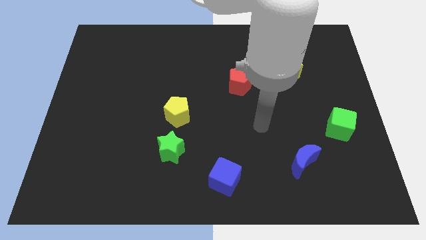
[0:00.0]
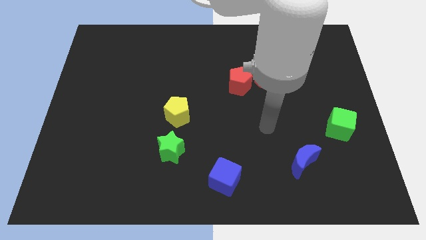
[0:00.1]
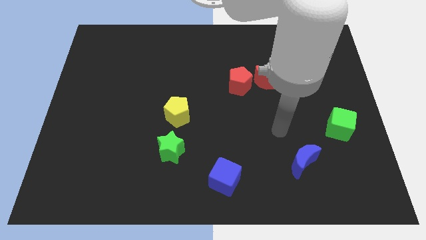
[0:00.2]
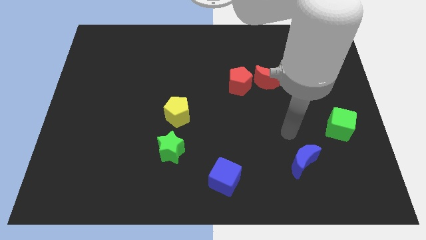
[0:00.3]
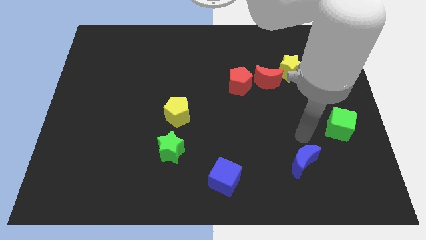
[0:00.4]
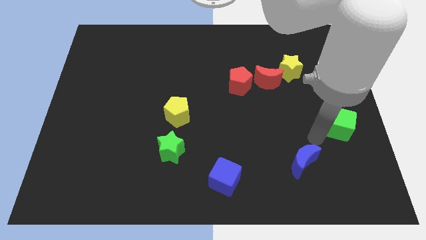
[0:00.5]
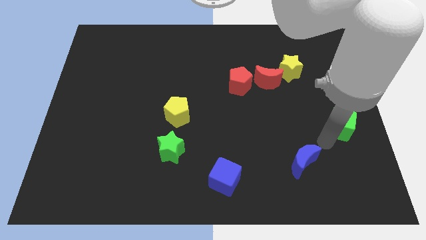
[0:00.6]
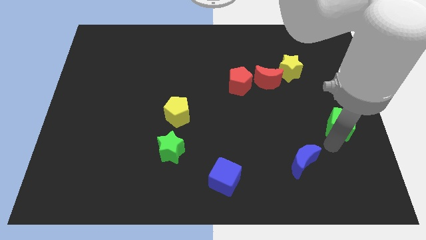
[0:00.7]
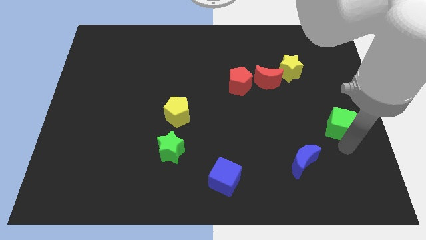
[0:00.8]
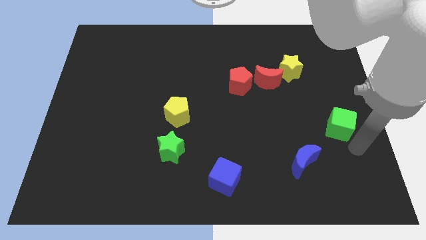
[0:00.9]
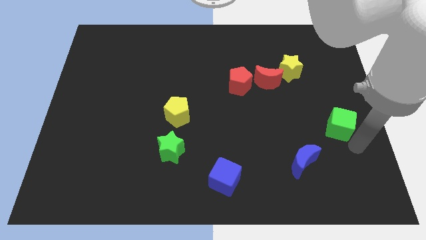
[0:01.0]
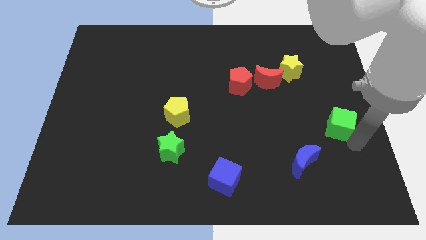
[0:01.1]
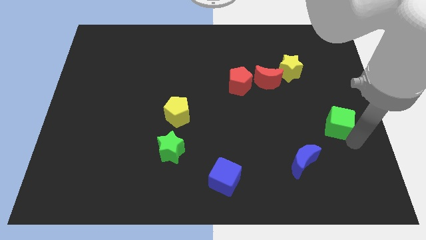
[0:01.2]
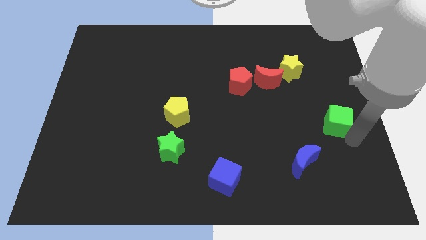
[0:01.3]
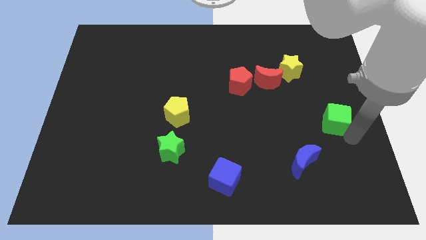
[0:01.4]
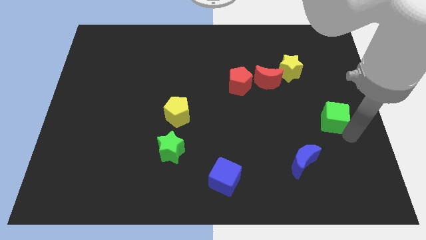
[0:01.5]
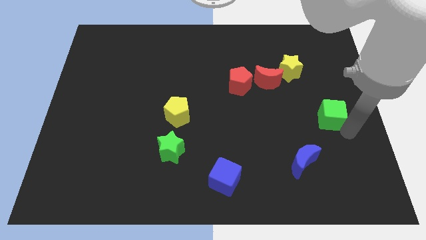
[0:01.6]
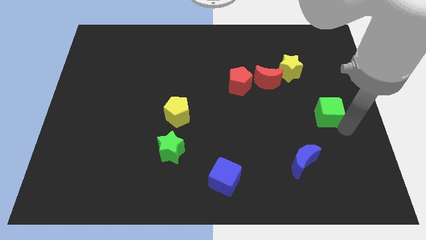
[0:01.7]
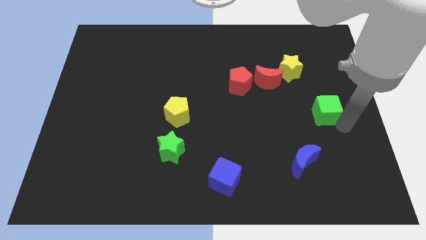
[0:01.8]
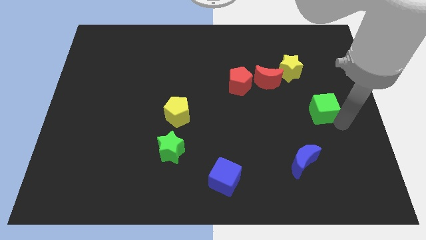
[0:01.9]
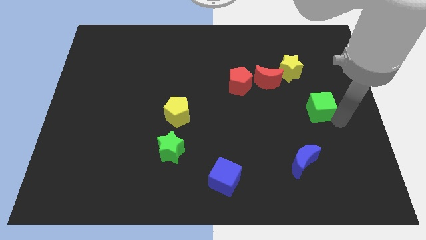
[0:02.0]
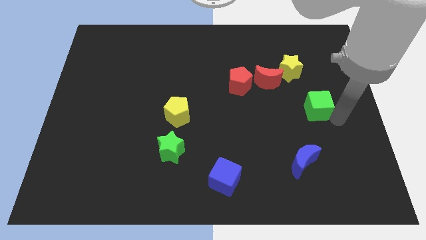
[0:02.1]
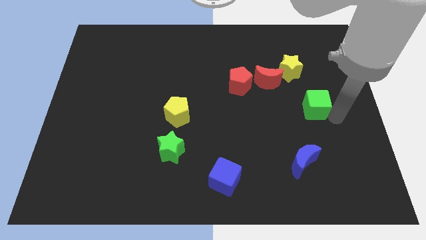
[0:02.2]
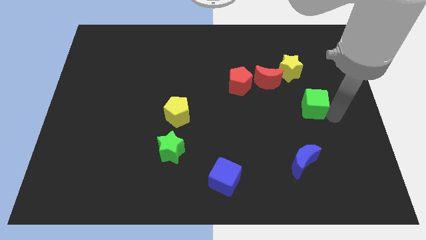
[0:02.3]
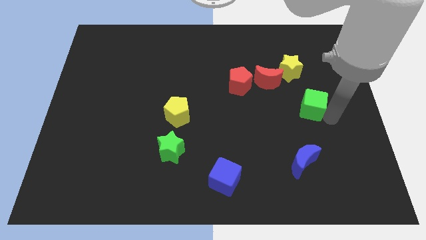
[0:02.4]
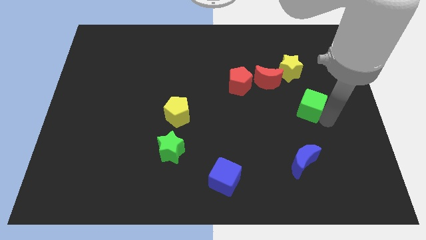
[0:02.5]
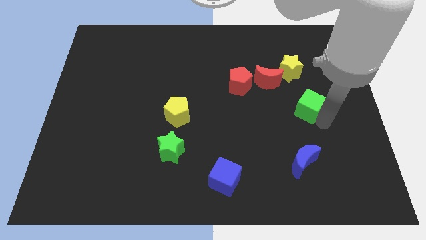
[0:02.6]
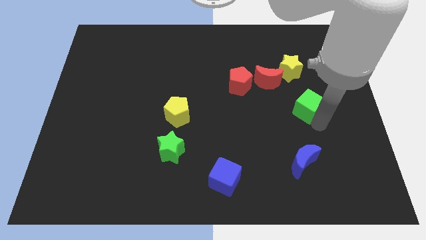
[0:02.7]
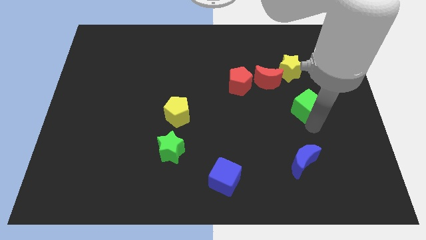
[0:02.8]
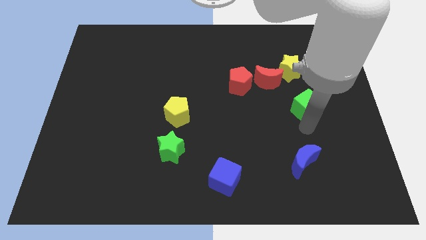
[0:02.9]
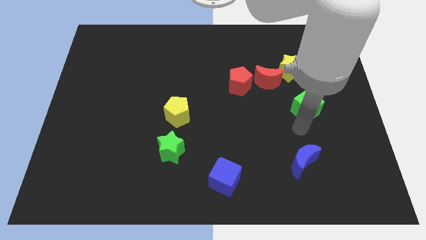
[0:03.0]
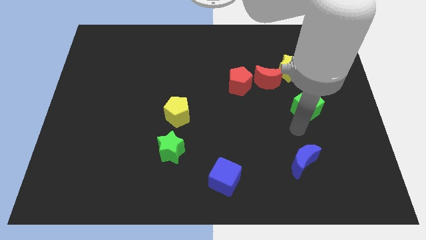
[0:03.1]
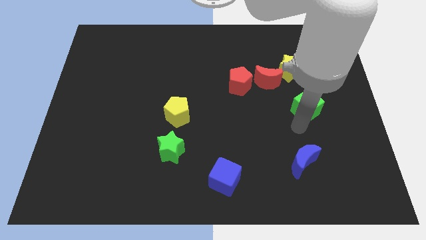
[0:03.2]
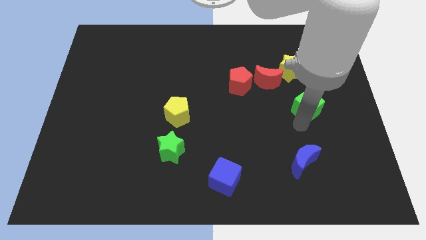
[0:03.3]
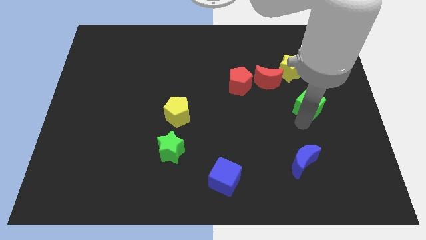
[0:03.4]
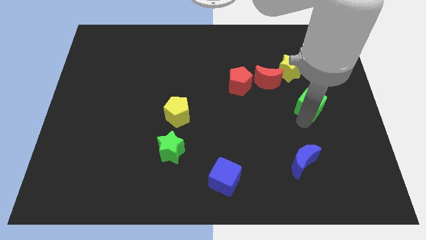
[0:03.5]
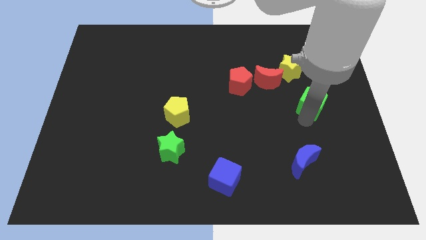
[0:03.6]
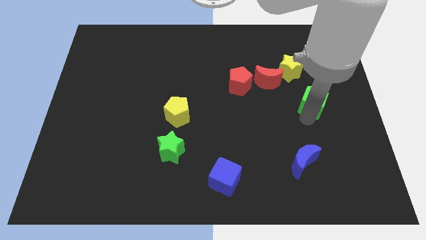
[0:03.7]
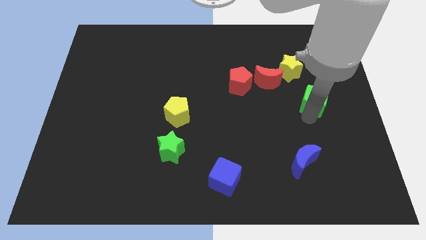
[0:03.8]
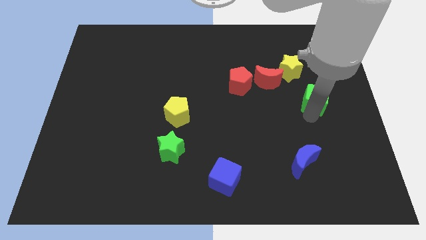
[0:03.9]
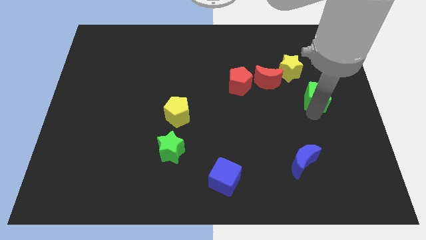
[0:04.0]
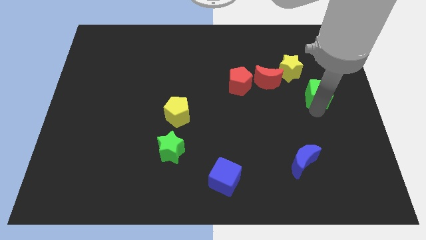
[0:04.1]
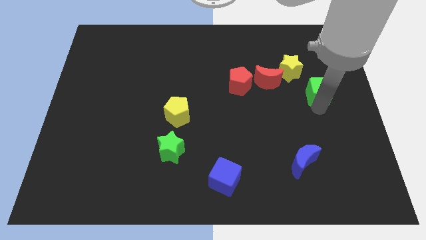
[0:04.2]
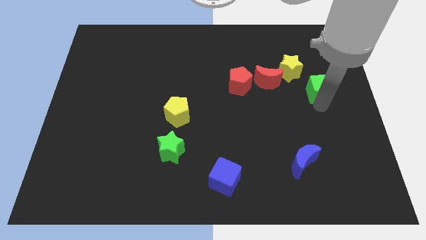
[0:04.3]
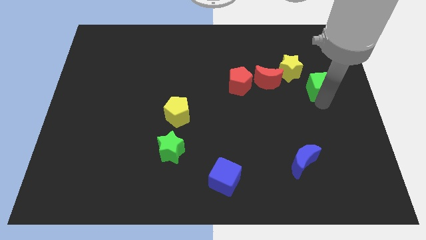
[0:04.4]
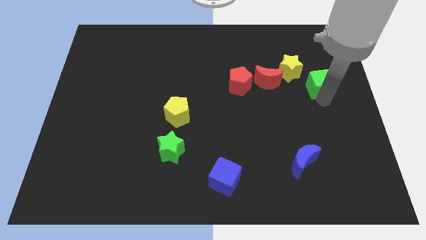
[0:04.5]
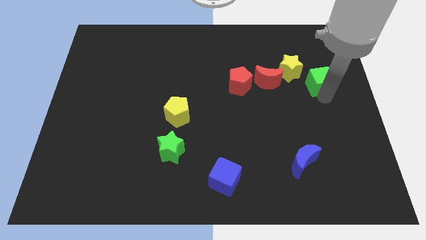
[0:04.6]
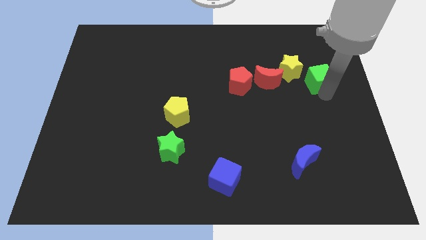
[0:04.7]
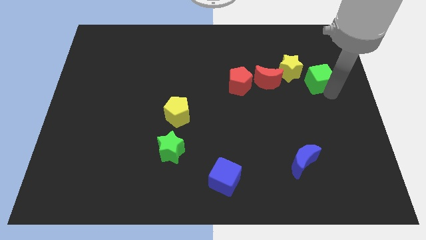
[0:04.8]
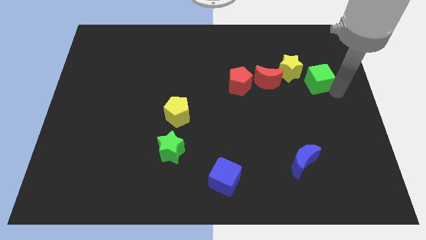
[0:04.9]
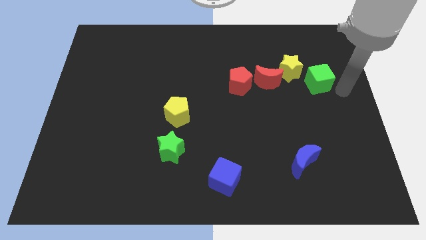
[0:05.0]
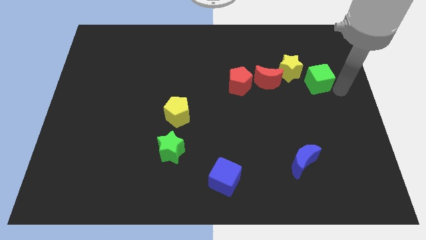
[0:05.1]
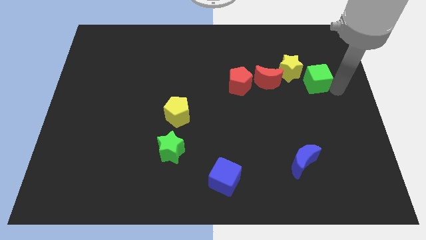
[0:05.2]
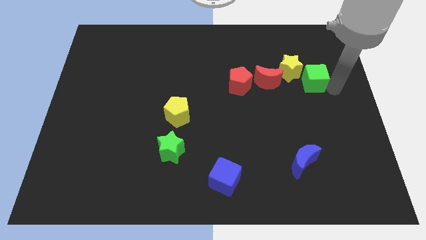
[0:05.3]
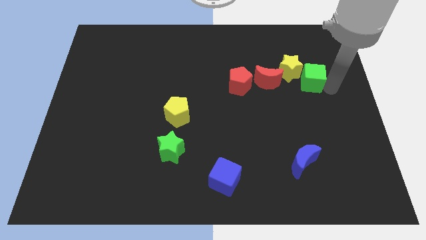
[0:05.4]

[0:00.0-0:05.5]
put the green cube next to the yellow star

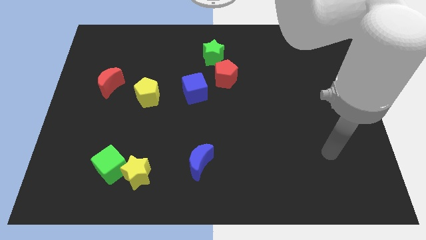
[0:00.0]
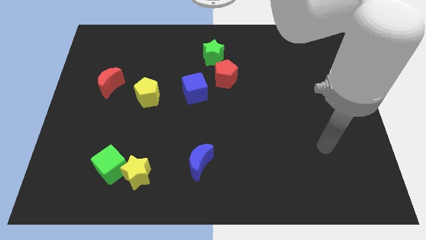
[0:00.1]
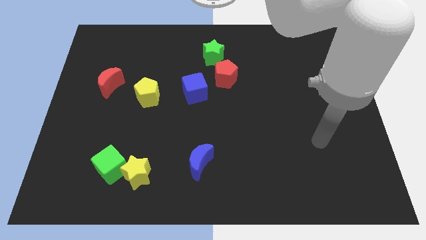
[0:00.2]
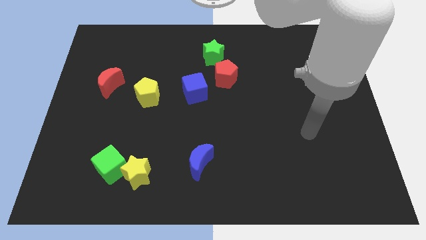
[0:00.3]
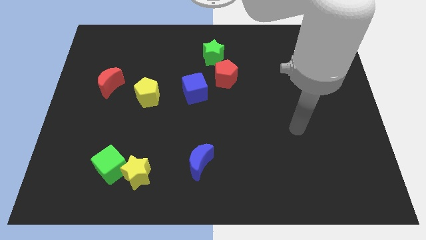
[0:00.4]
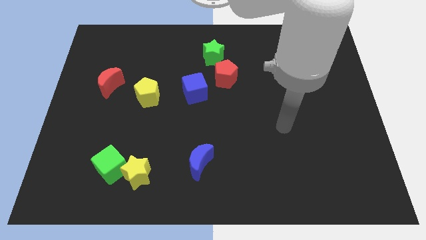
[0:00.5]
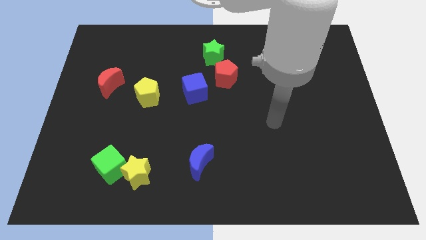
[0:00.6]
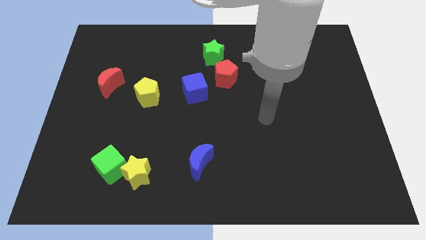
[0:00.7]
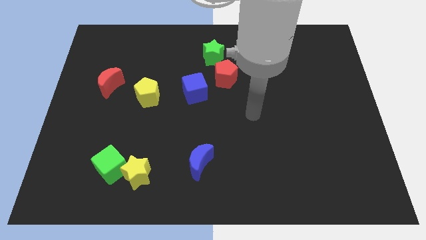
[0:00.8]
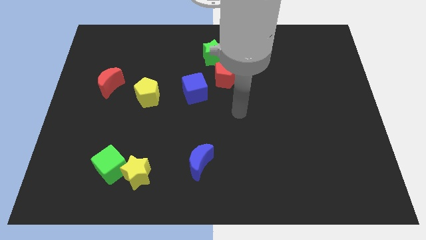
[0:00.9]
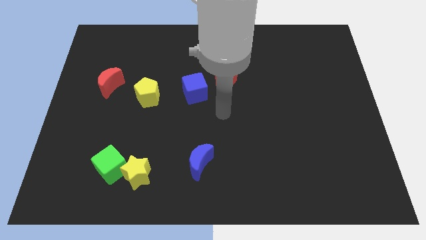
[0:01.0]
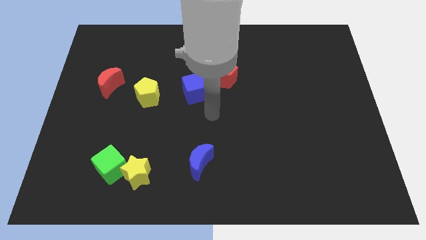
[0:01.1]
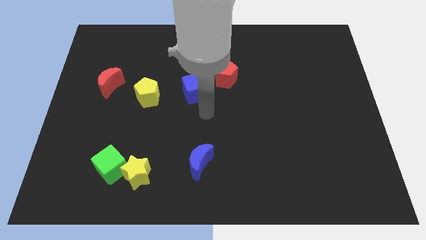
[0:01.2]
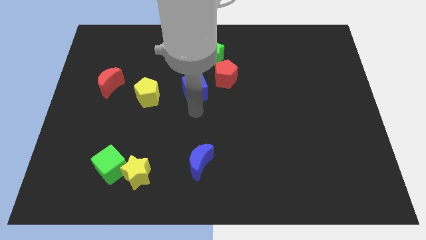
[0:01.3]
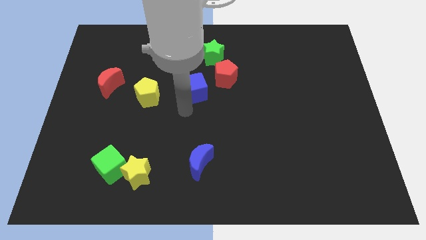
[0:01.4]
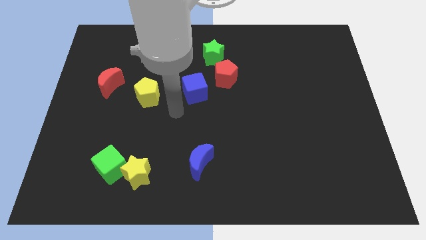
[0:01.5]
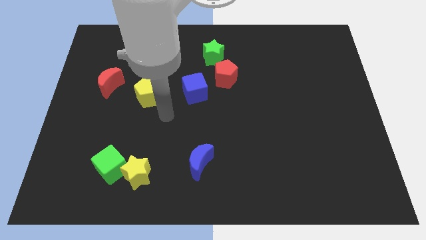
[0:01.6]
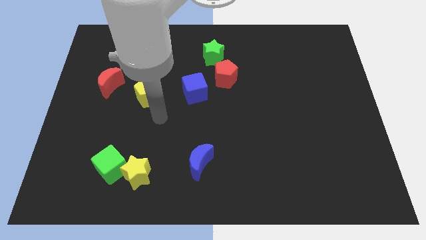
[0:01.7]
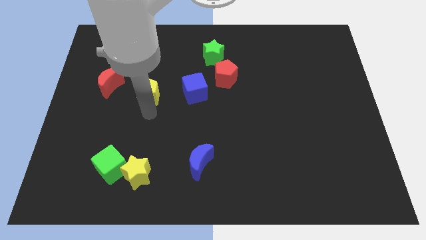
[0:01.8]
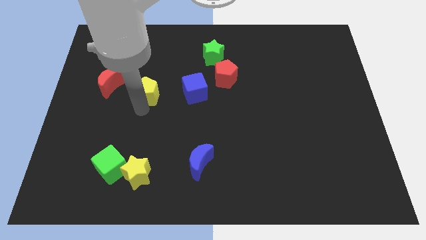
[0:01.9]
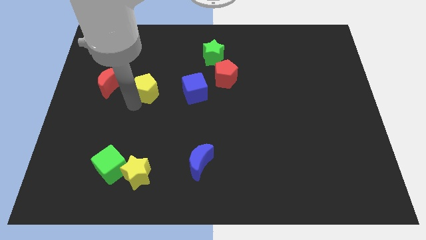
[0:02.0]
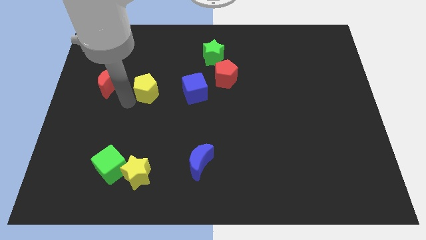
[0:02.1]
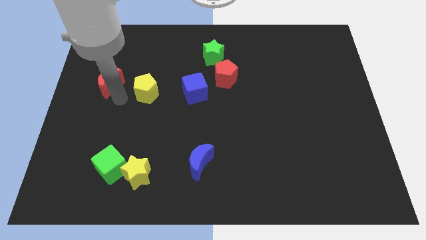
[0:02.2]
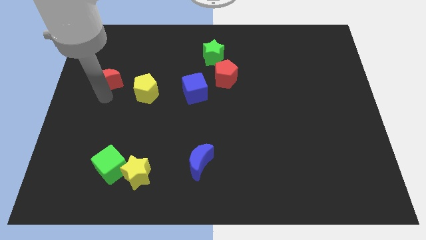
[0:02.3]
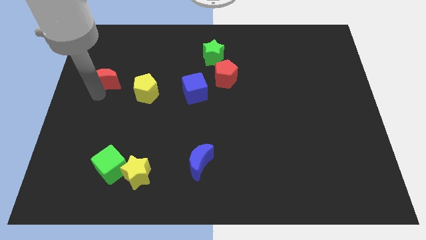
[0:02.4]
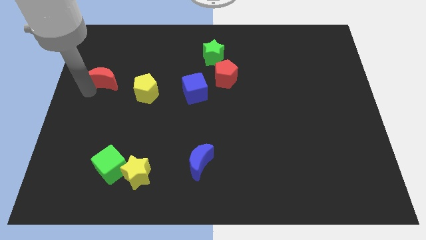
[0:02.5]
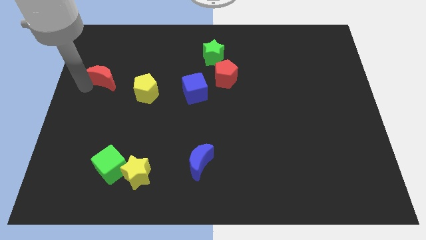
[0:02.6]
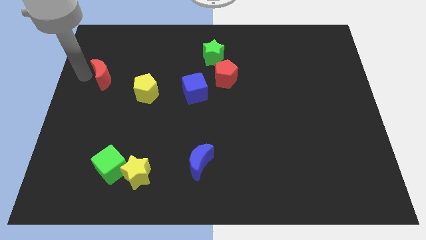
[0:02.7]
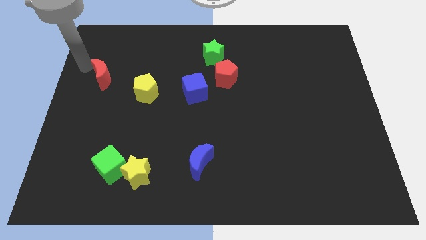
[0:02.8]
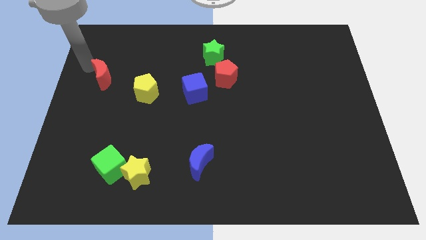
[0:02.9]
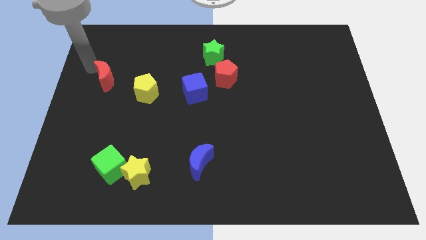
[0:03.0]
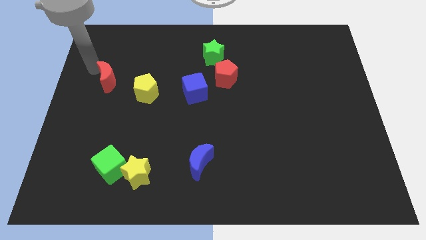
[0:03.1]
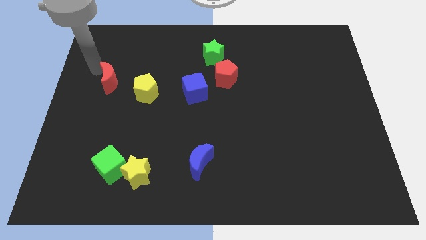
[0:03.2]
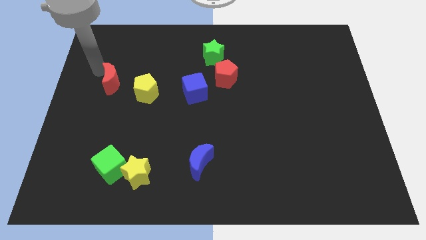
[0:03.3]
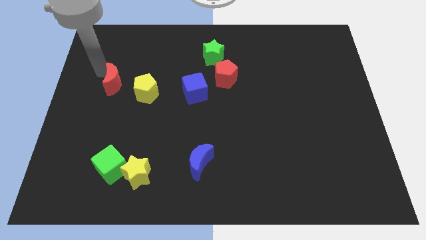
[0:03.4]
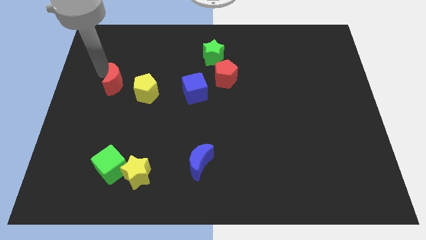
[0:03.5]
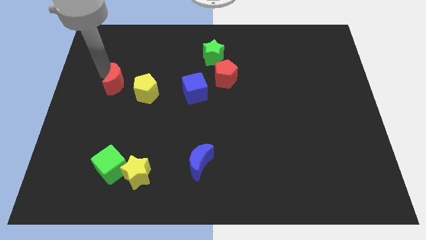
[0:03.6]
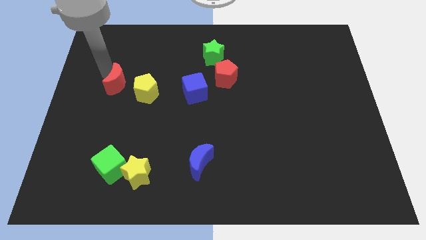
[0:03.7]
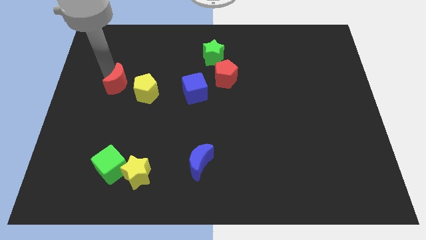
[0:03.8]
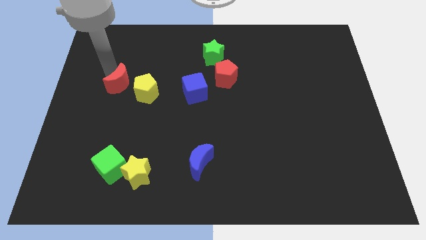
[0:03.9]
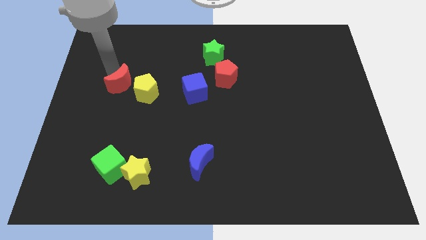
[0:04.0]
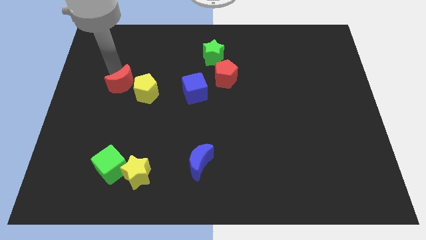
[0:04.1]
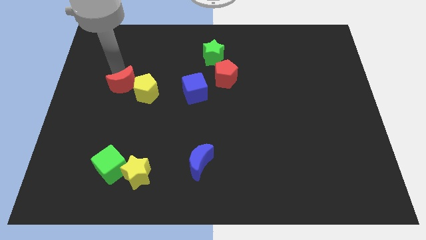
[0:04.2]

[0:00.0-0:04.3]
push the red moon to the yellow pentagon
